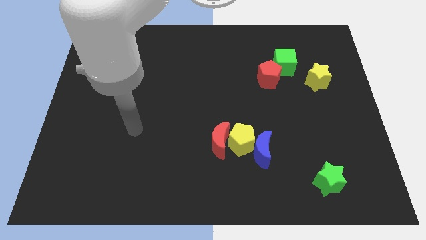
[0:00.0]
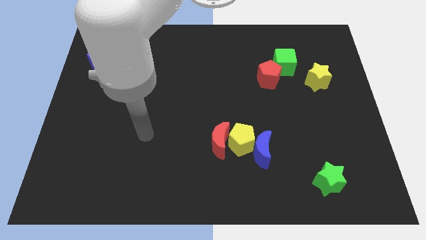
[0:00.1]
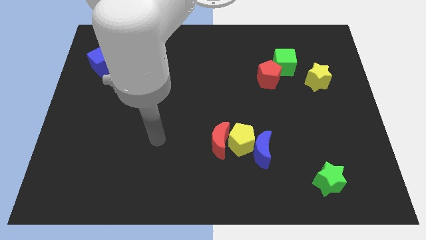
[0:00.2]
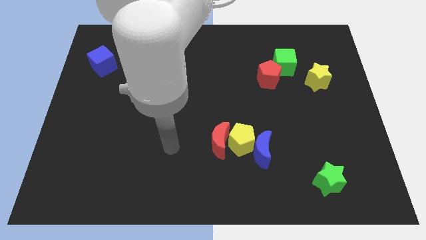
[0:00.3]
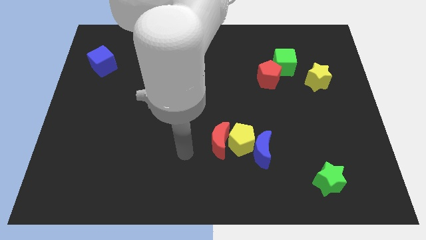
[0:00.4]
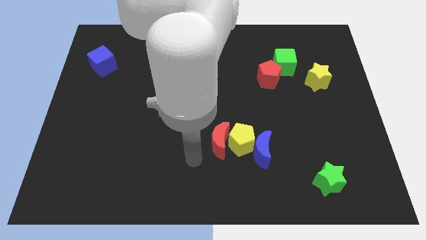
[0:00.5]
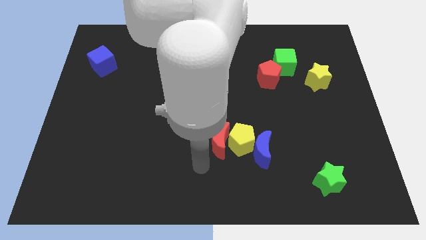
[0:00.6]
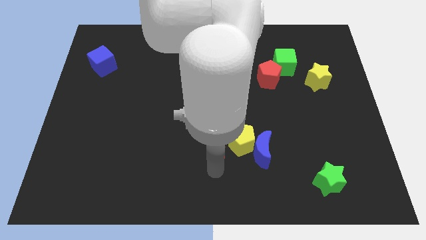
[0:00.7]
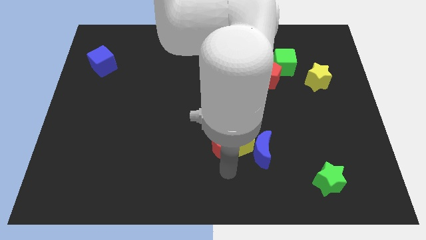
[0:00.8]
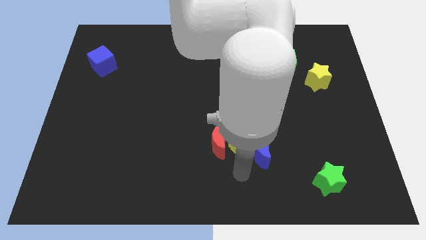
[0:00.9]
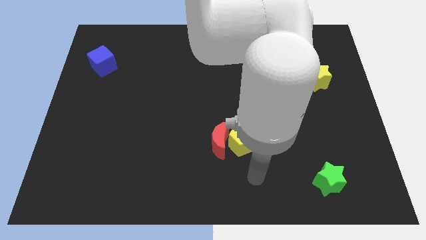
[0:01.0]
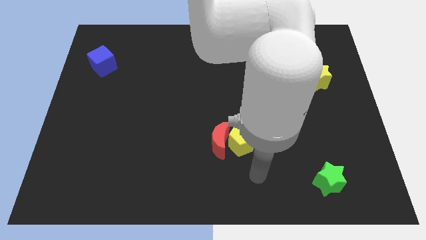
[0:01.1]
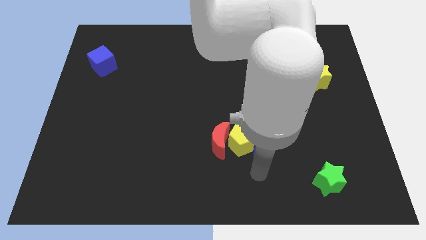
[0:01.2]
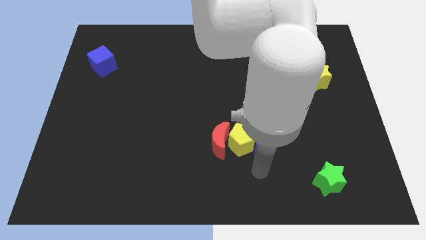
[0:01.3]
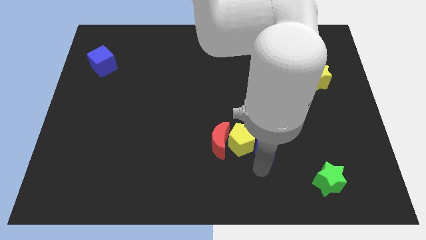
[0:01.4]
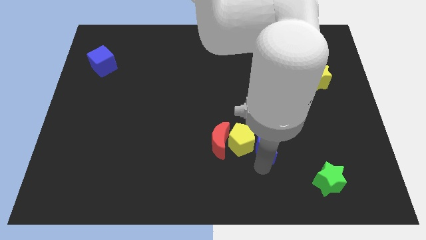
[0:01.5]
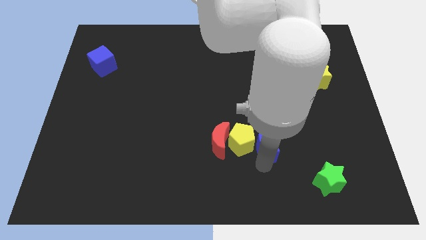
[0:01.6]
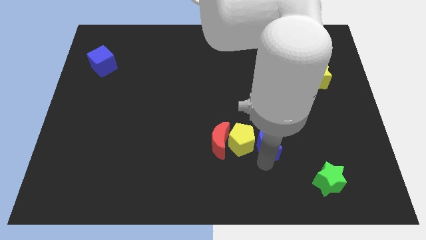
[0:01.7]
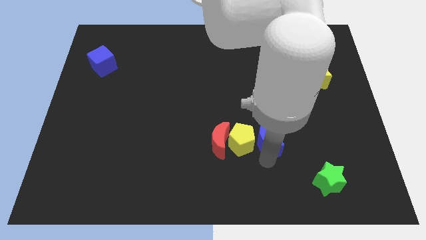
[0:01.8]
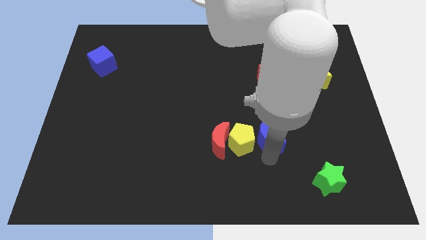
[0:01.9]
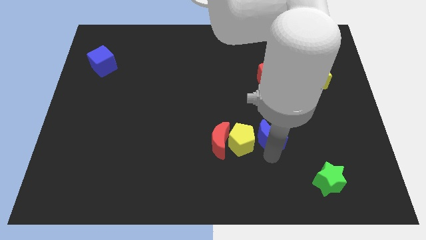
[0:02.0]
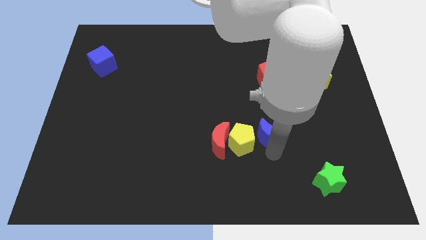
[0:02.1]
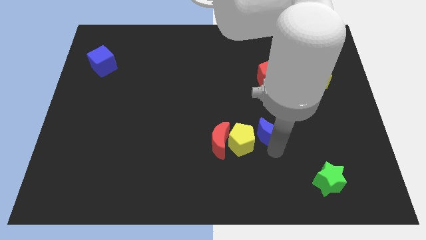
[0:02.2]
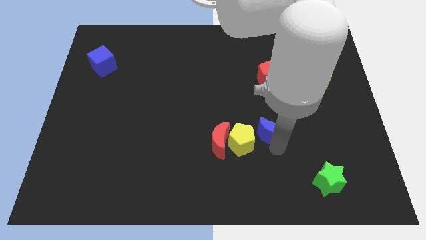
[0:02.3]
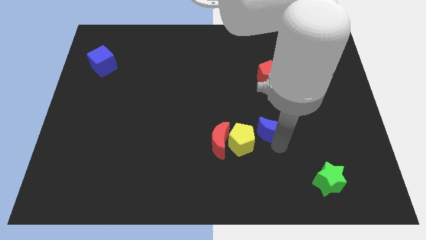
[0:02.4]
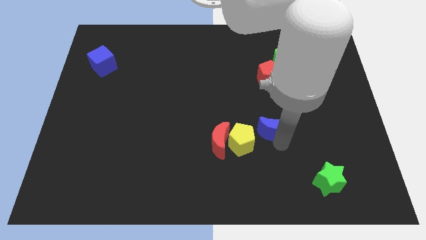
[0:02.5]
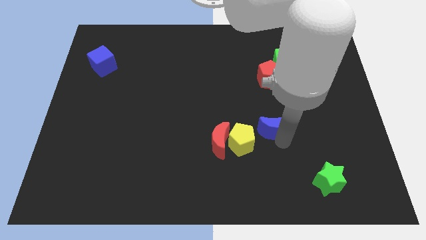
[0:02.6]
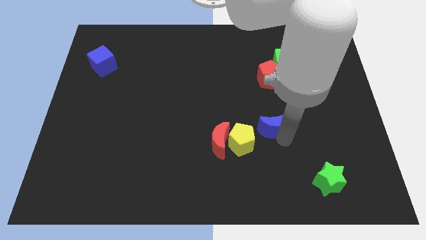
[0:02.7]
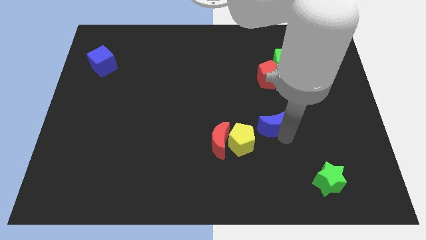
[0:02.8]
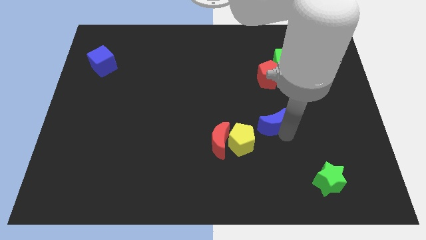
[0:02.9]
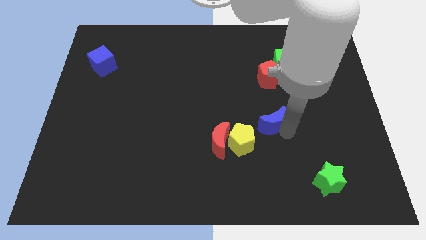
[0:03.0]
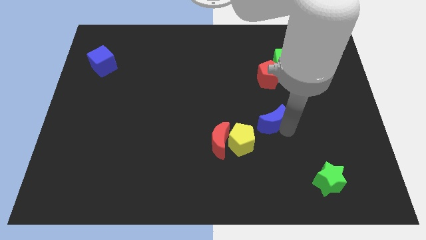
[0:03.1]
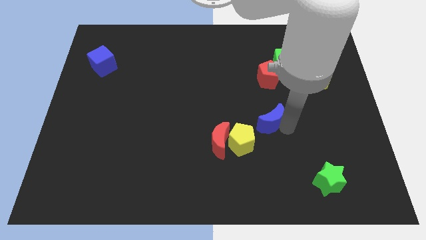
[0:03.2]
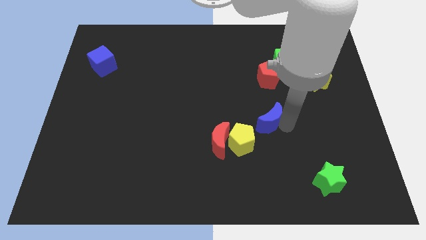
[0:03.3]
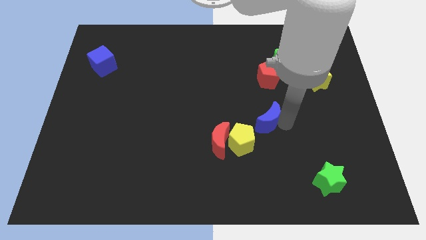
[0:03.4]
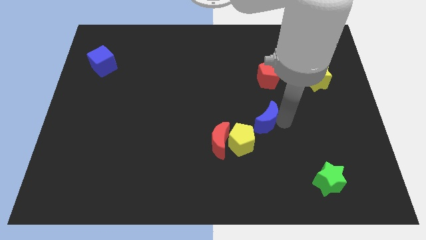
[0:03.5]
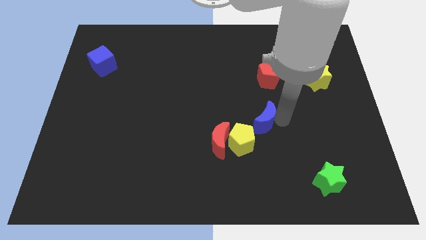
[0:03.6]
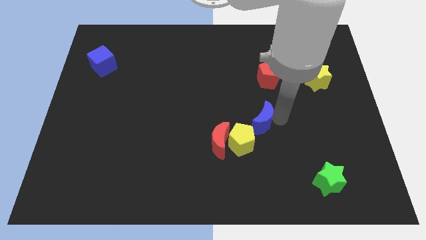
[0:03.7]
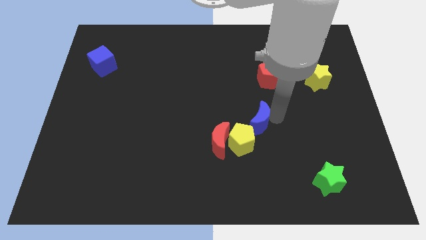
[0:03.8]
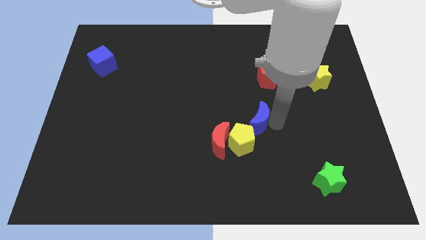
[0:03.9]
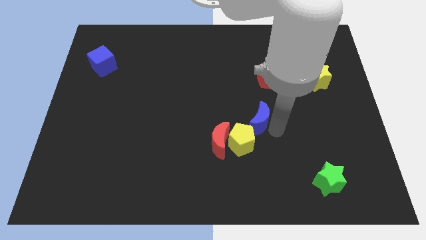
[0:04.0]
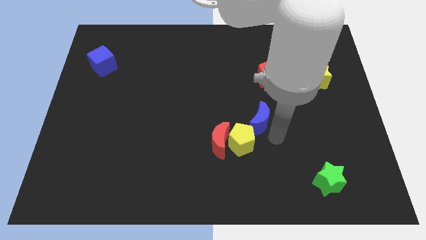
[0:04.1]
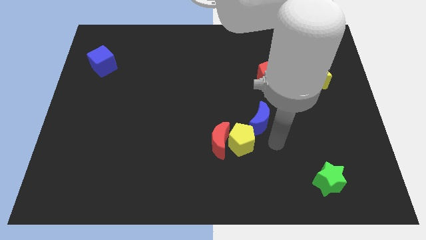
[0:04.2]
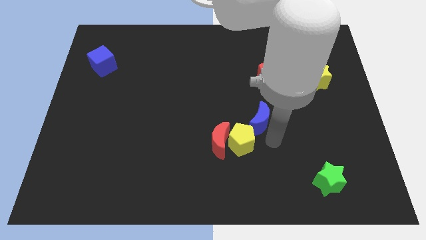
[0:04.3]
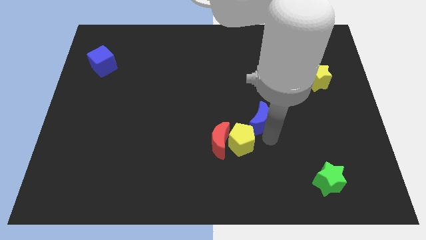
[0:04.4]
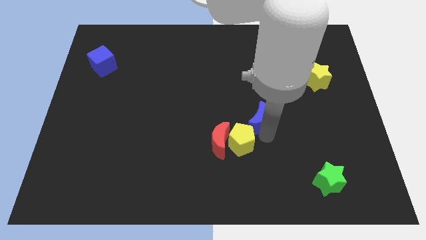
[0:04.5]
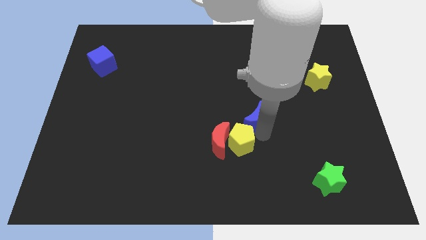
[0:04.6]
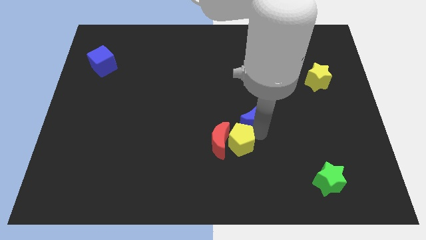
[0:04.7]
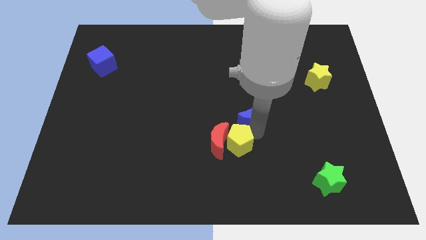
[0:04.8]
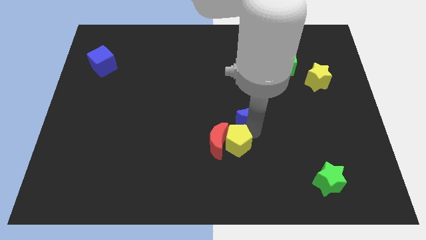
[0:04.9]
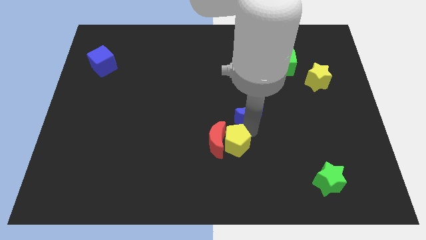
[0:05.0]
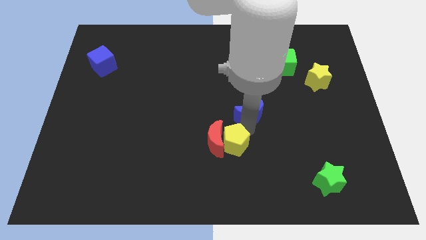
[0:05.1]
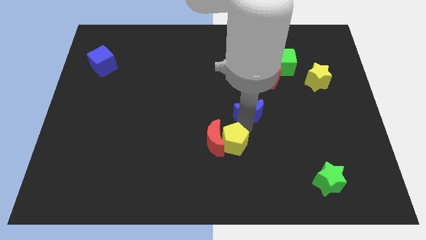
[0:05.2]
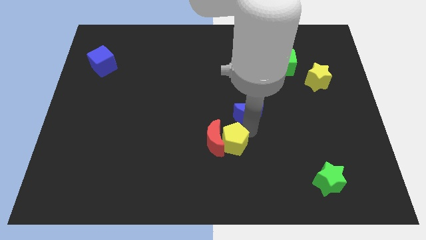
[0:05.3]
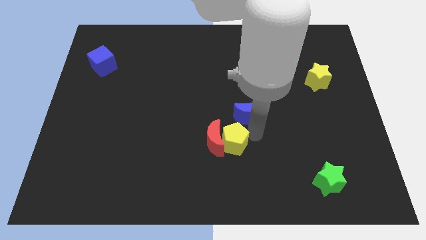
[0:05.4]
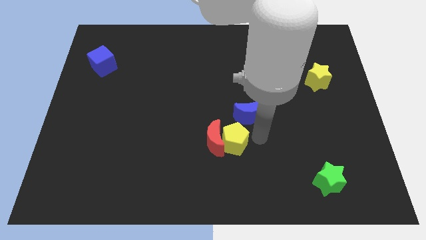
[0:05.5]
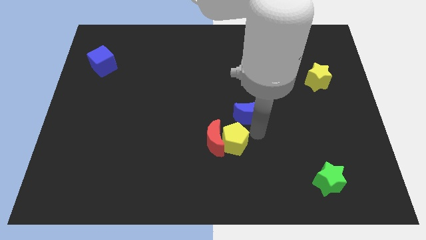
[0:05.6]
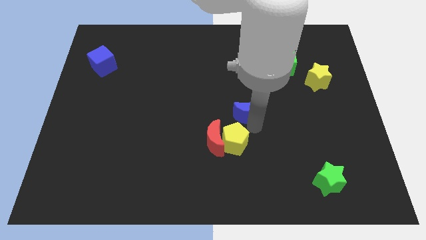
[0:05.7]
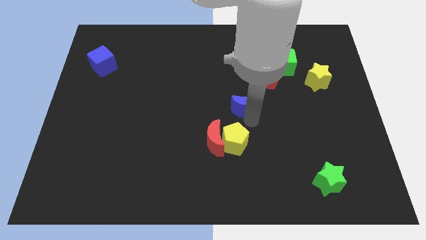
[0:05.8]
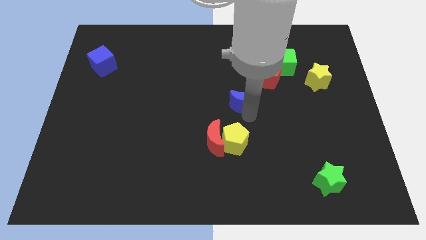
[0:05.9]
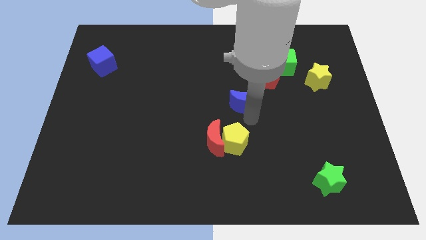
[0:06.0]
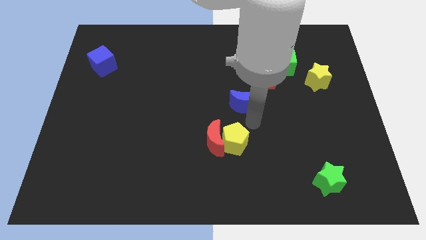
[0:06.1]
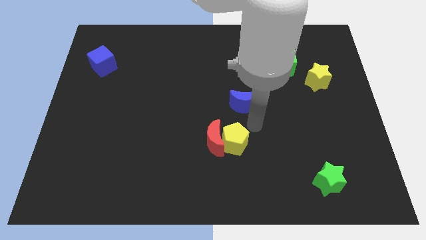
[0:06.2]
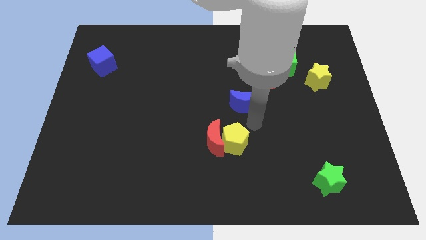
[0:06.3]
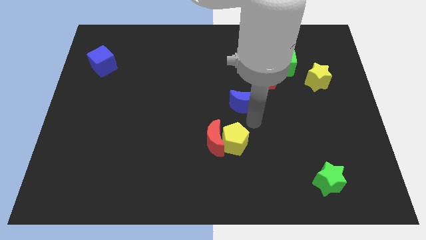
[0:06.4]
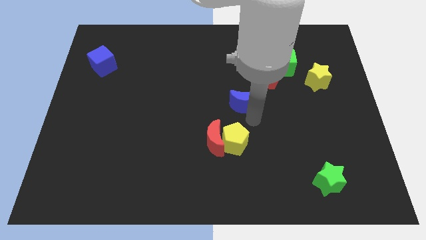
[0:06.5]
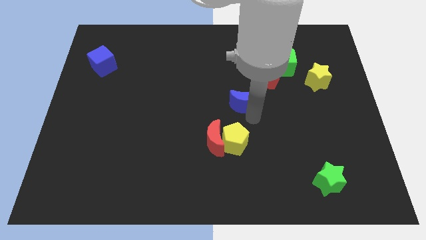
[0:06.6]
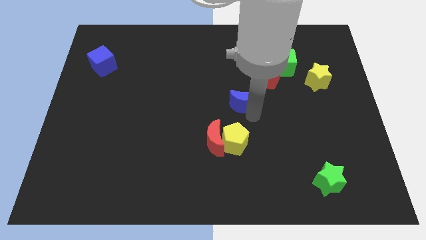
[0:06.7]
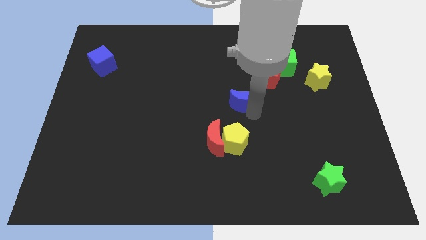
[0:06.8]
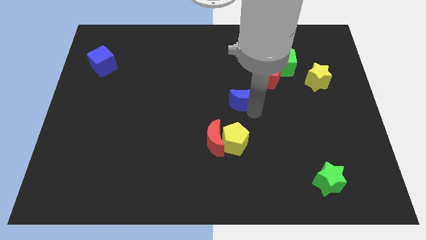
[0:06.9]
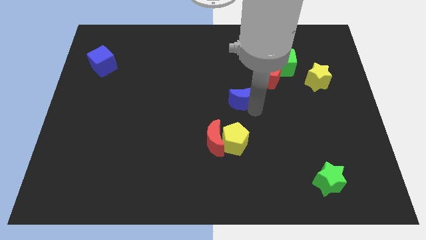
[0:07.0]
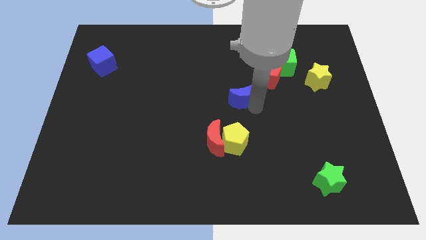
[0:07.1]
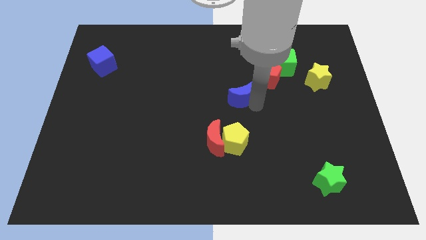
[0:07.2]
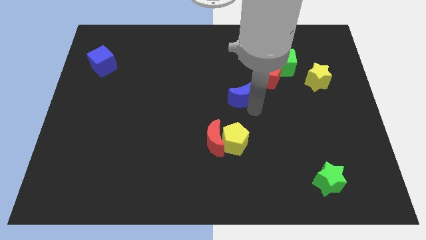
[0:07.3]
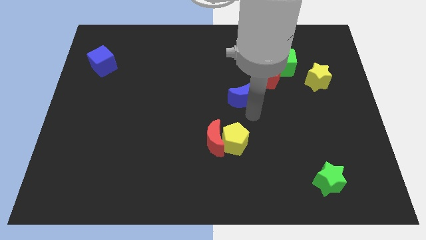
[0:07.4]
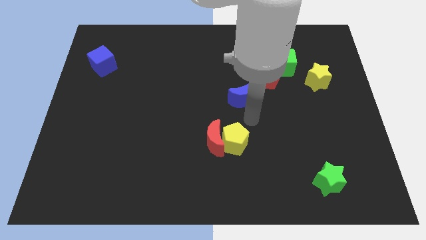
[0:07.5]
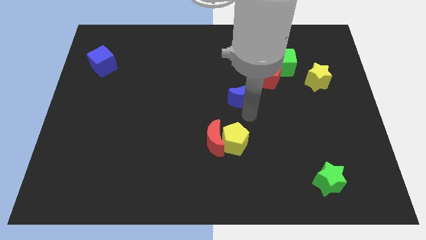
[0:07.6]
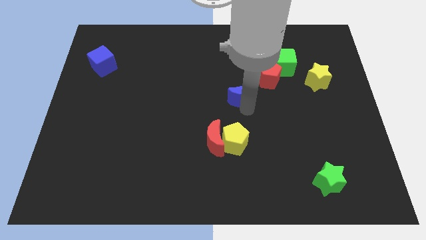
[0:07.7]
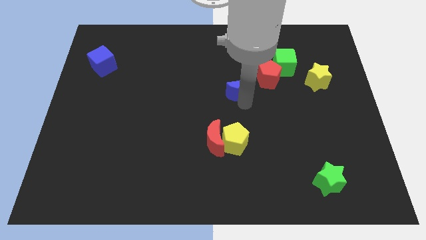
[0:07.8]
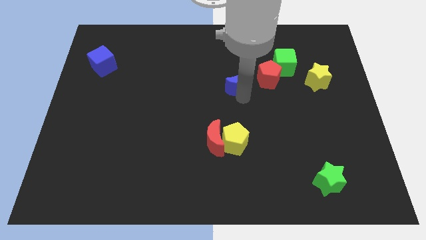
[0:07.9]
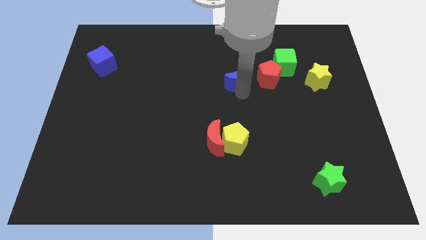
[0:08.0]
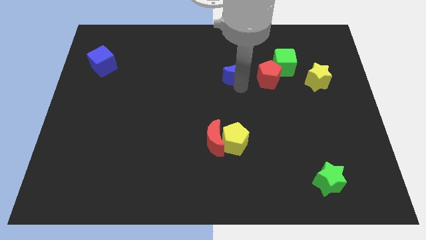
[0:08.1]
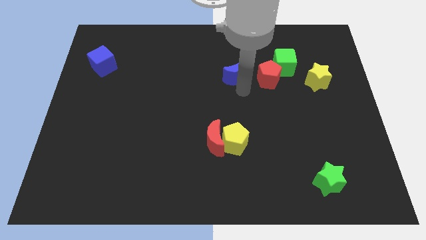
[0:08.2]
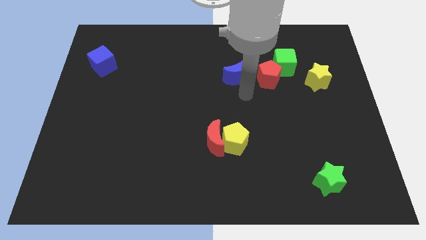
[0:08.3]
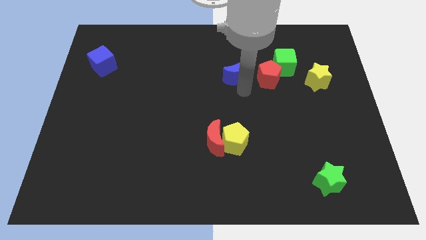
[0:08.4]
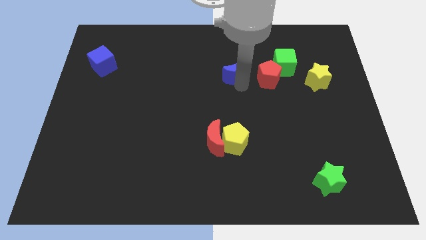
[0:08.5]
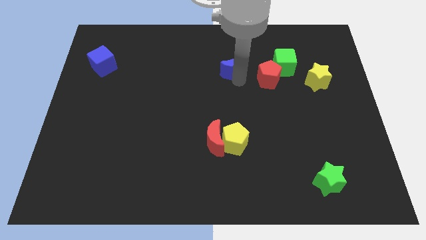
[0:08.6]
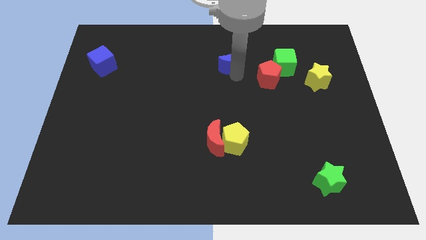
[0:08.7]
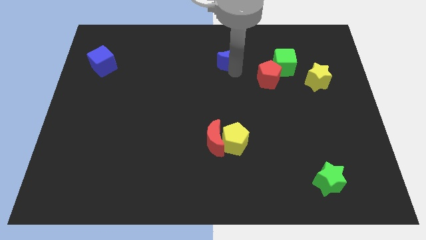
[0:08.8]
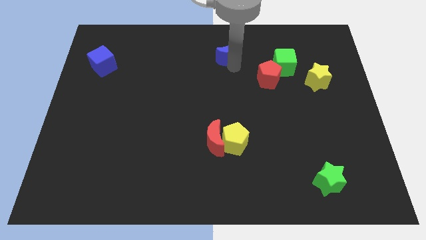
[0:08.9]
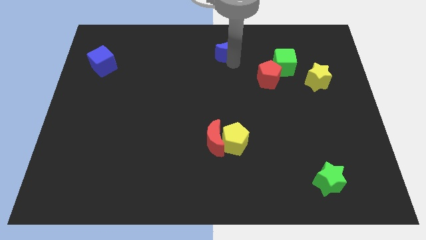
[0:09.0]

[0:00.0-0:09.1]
slide the blue moon to the top side
